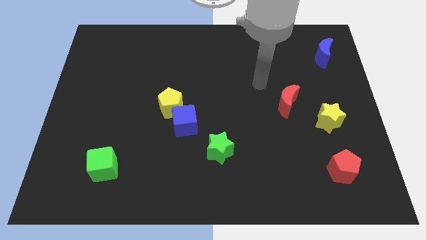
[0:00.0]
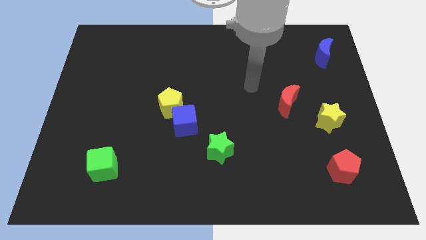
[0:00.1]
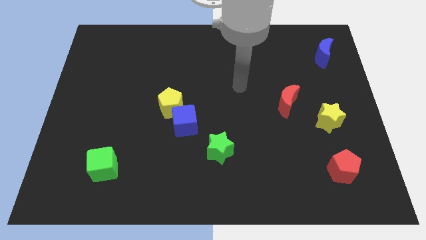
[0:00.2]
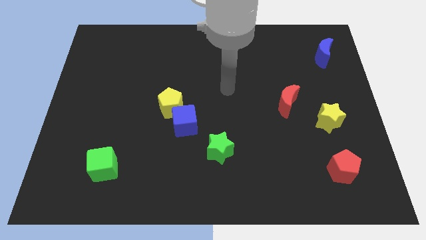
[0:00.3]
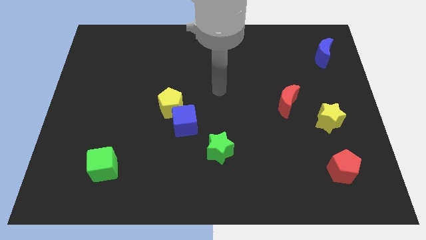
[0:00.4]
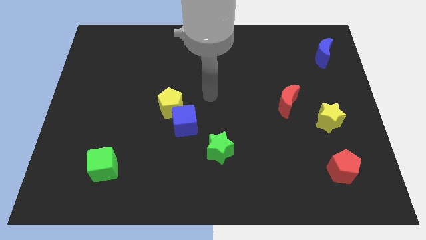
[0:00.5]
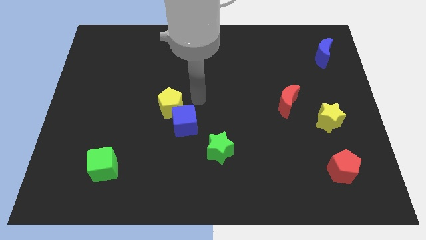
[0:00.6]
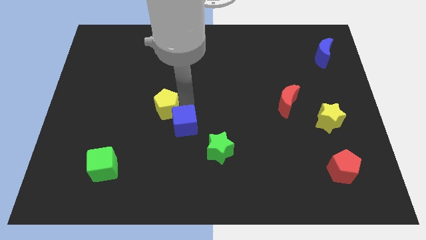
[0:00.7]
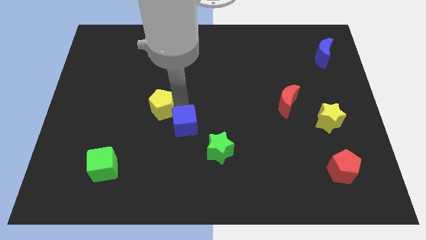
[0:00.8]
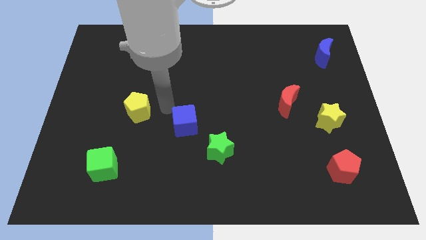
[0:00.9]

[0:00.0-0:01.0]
pull the blue cube apart from the yellow pentagon

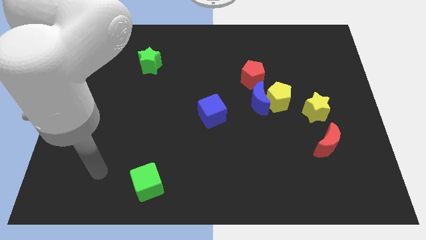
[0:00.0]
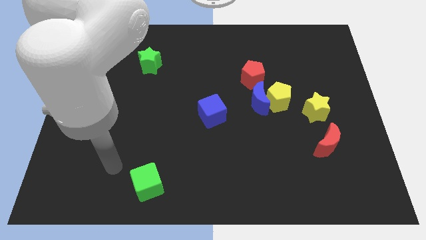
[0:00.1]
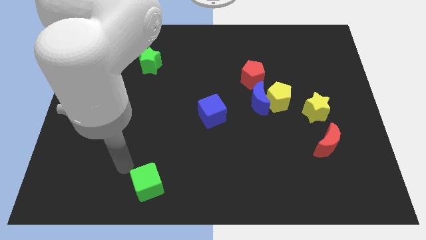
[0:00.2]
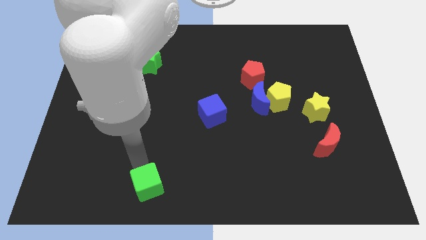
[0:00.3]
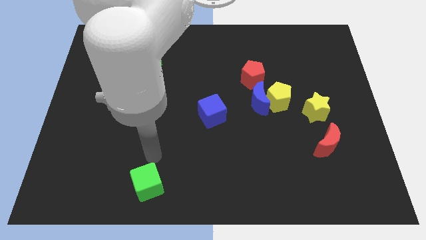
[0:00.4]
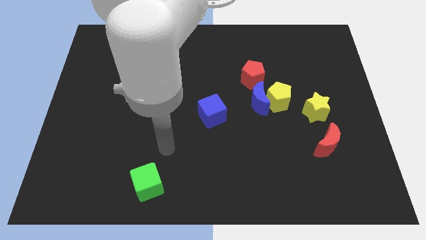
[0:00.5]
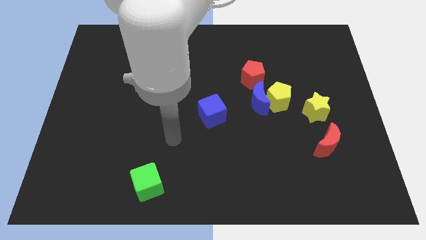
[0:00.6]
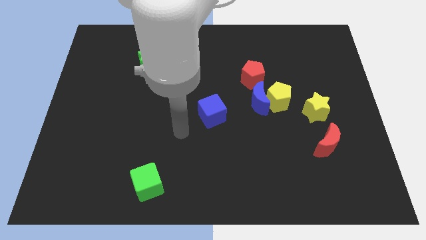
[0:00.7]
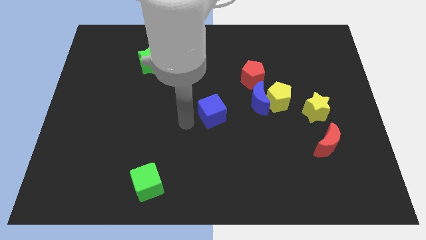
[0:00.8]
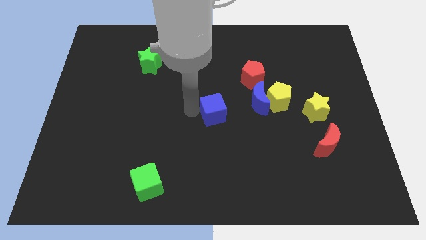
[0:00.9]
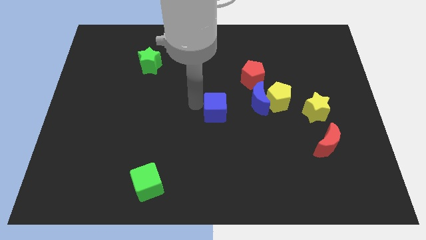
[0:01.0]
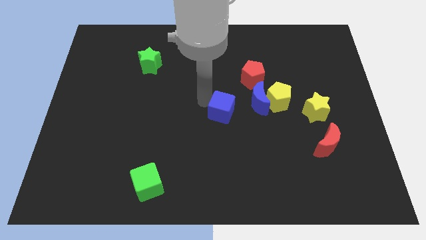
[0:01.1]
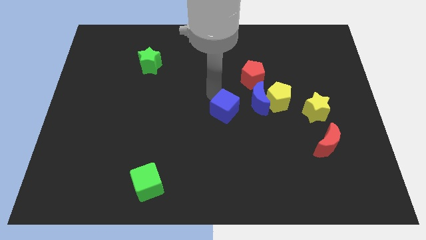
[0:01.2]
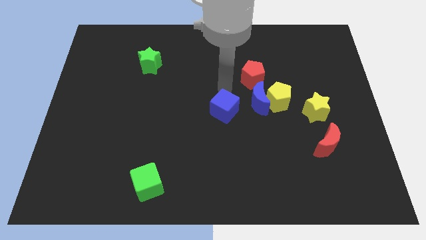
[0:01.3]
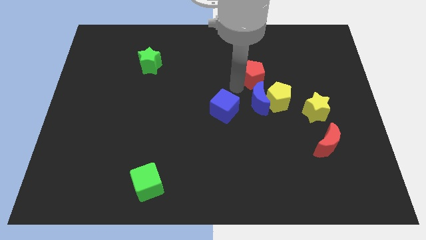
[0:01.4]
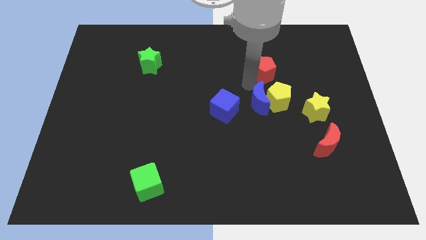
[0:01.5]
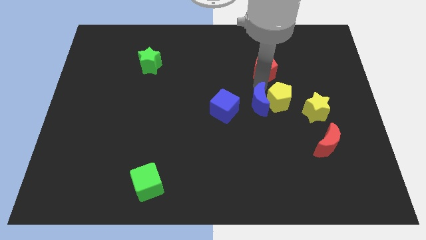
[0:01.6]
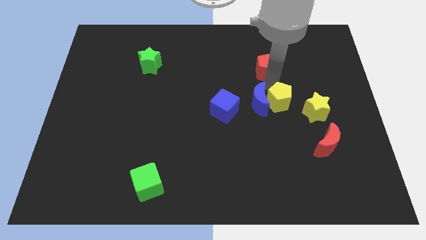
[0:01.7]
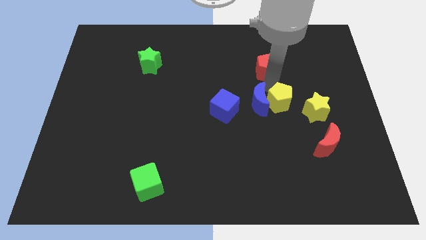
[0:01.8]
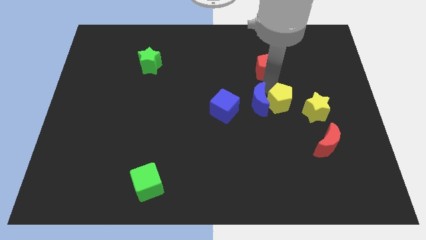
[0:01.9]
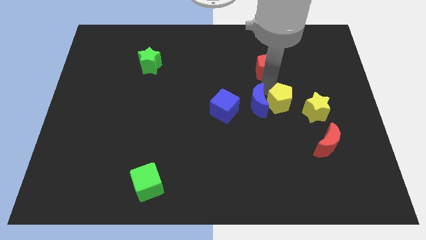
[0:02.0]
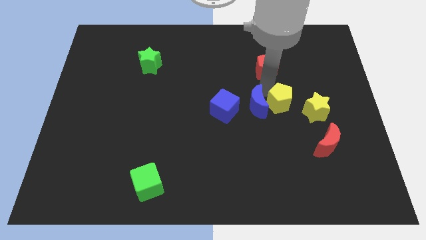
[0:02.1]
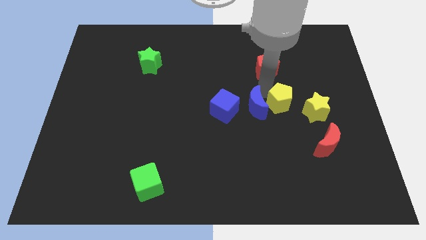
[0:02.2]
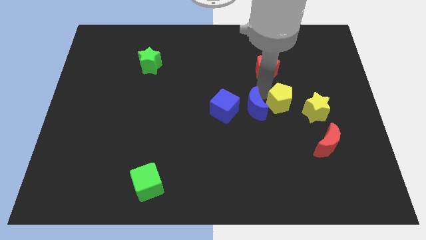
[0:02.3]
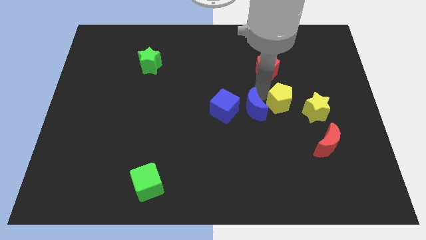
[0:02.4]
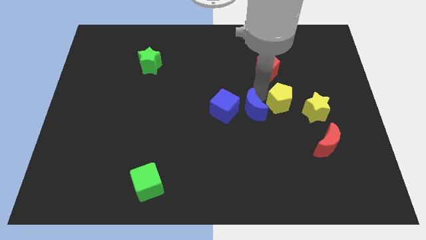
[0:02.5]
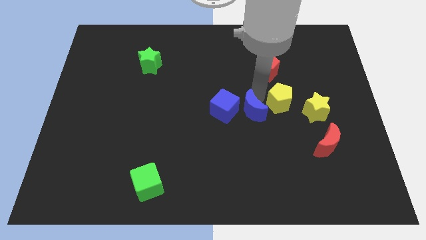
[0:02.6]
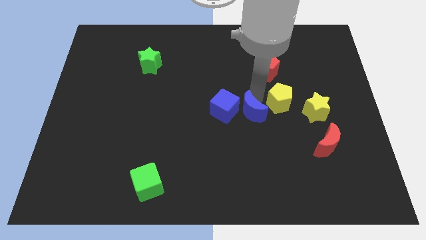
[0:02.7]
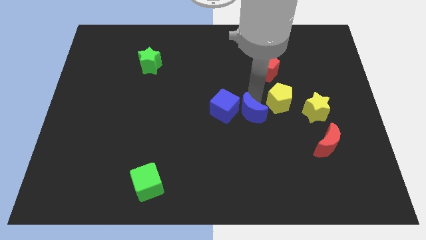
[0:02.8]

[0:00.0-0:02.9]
pull the blue moon apart from the yellow pentagon and red pentagon

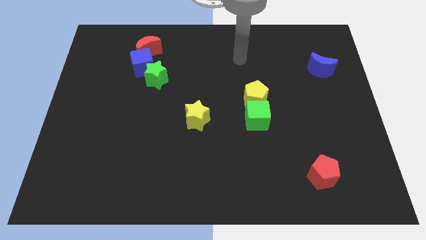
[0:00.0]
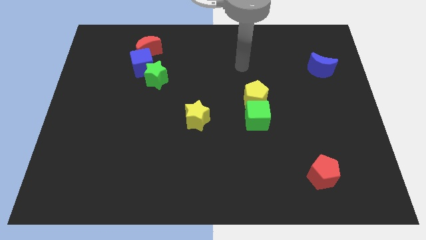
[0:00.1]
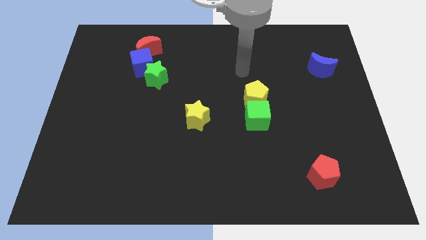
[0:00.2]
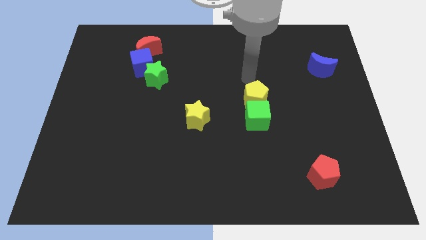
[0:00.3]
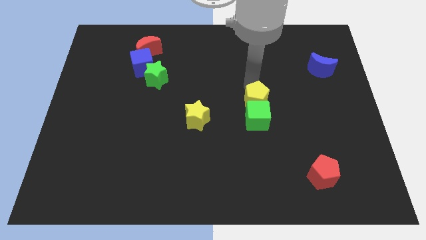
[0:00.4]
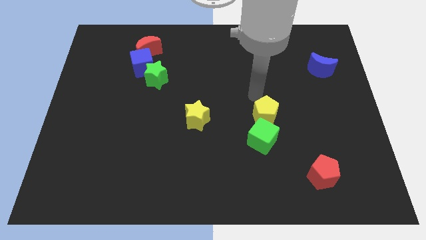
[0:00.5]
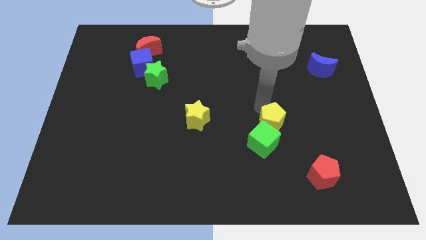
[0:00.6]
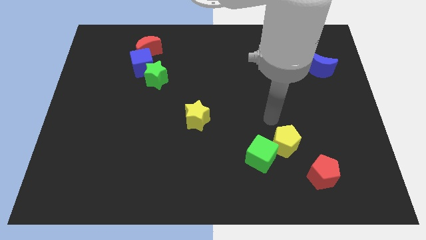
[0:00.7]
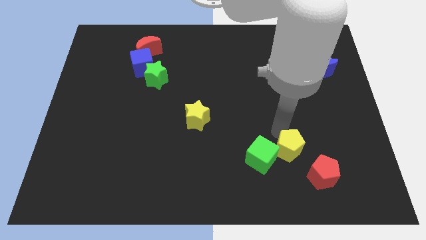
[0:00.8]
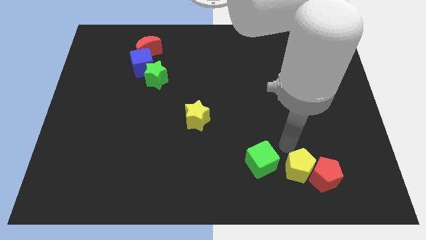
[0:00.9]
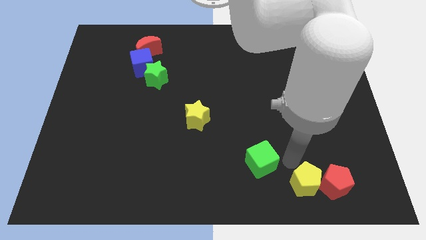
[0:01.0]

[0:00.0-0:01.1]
pull the green cube apart from the yellow pentagon

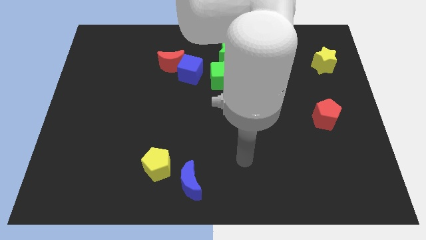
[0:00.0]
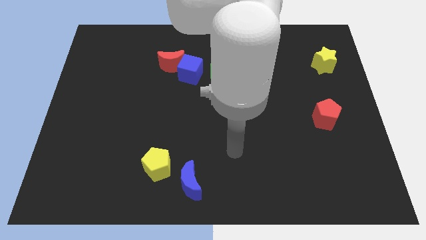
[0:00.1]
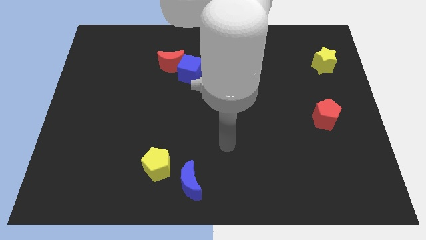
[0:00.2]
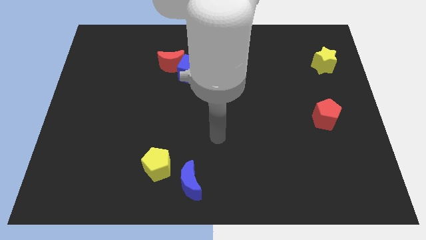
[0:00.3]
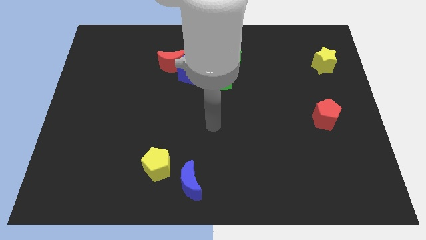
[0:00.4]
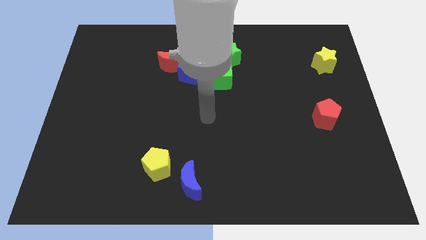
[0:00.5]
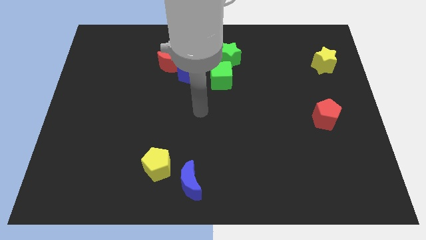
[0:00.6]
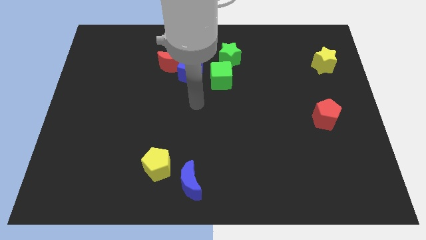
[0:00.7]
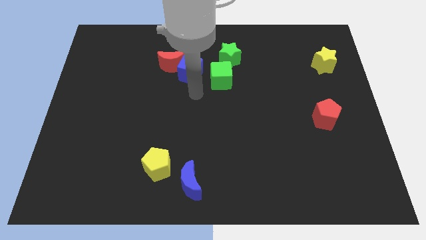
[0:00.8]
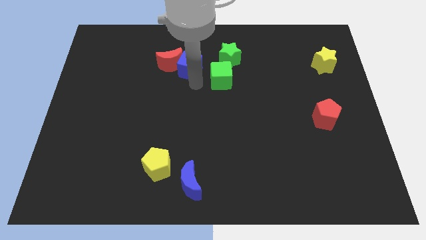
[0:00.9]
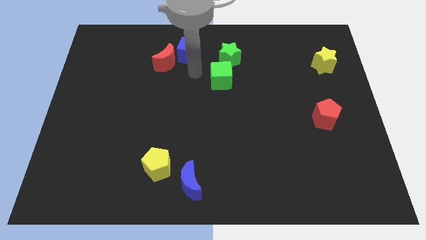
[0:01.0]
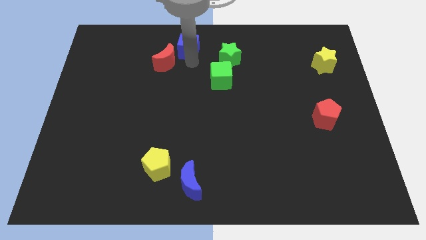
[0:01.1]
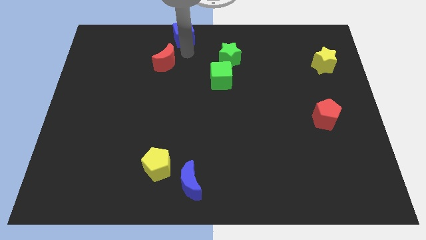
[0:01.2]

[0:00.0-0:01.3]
pull the red moon apart from the blue cube

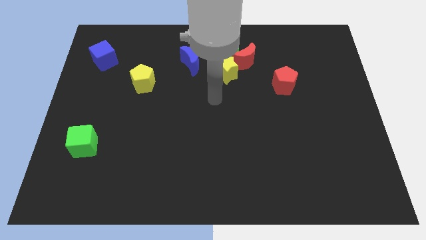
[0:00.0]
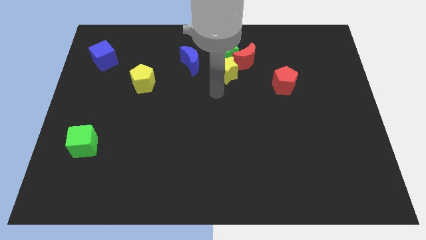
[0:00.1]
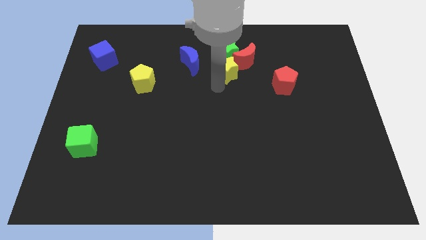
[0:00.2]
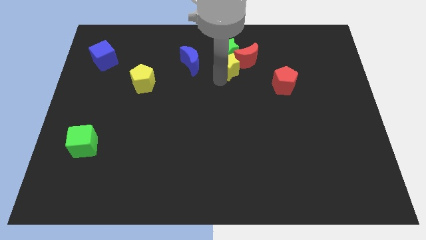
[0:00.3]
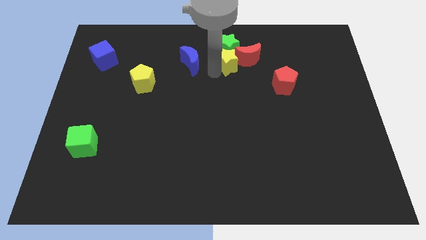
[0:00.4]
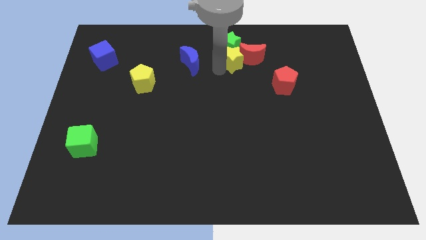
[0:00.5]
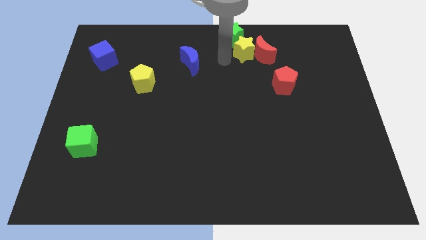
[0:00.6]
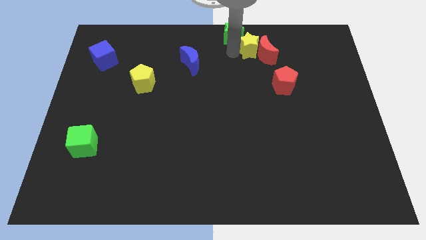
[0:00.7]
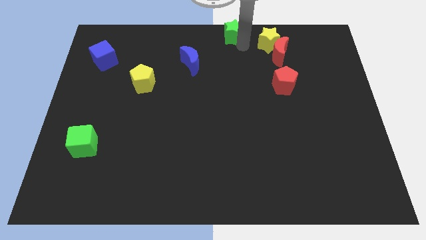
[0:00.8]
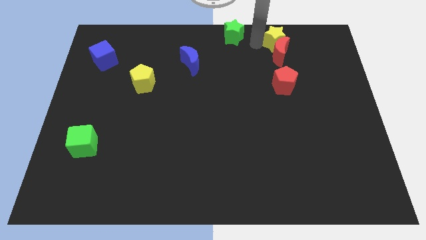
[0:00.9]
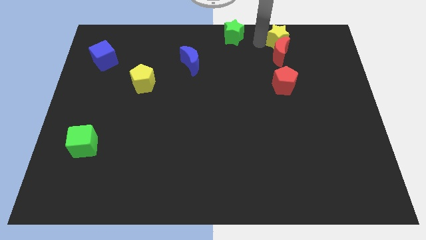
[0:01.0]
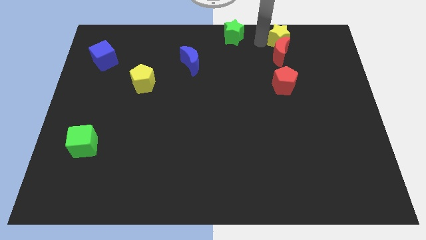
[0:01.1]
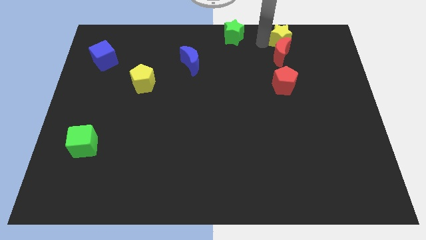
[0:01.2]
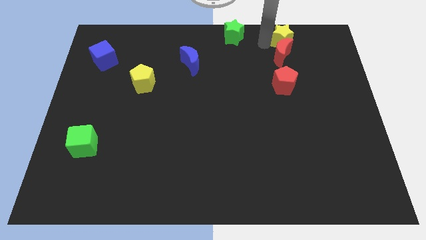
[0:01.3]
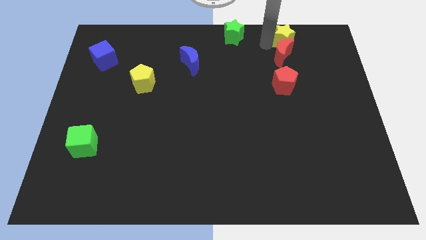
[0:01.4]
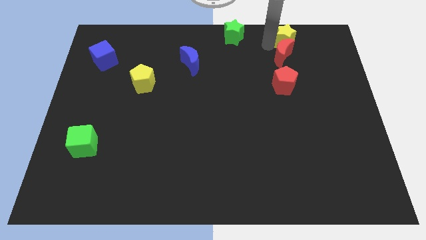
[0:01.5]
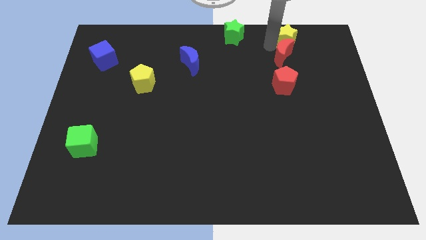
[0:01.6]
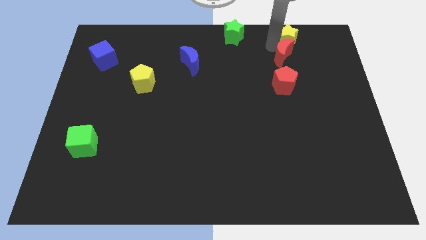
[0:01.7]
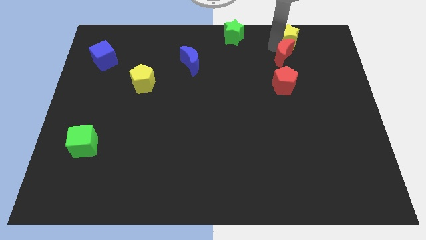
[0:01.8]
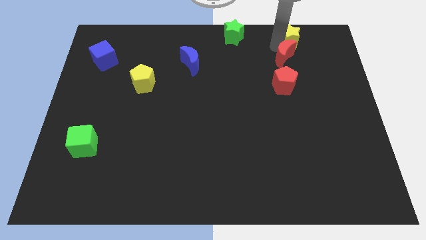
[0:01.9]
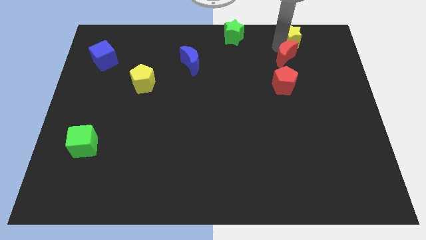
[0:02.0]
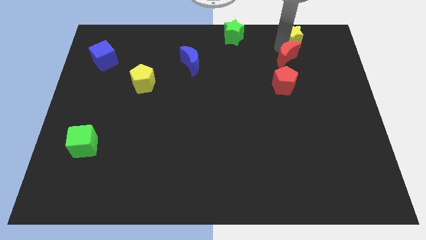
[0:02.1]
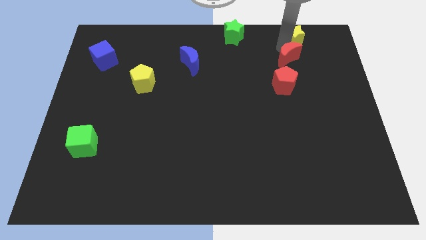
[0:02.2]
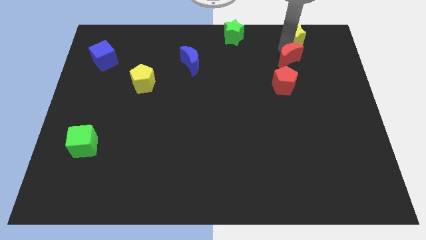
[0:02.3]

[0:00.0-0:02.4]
separate the red moon from the green star and yellow star

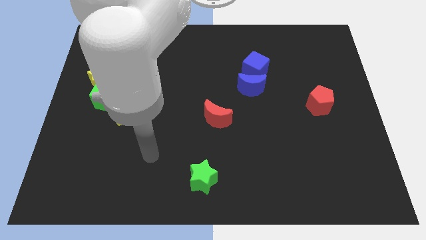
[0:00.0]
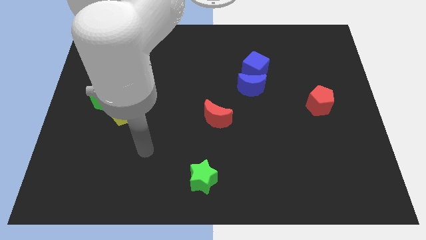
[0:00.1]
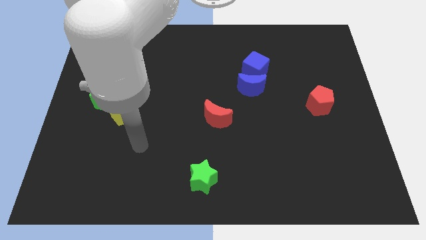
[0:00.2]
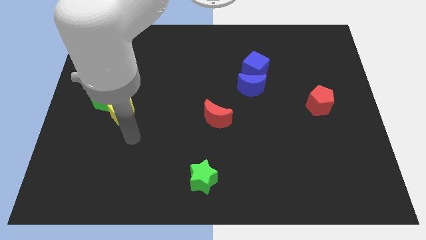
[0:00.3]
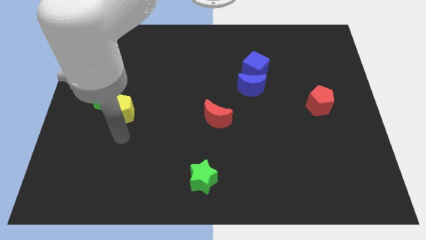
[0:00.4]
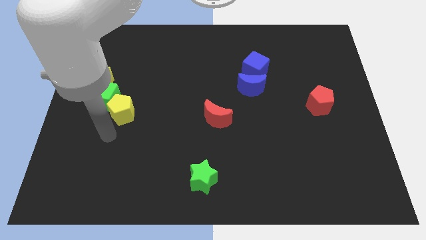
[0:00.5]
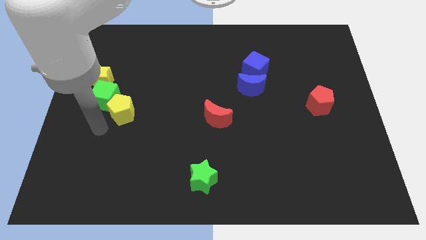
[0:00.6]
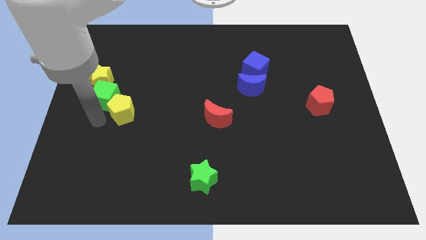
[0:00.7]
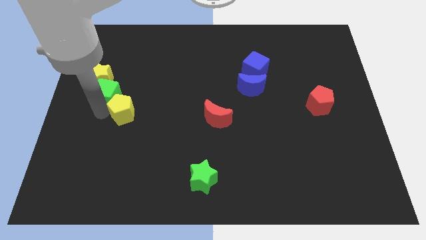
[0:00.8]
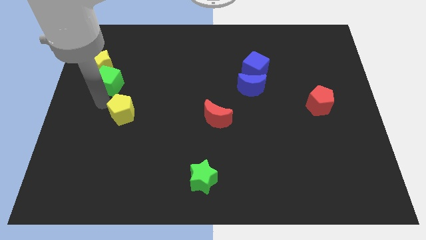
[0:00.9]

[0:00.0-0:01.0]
separate the yellow pentagon from the green cube
